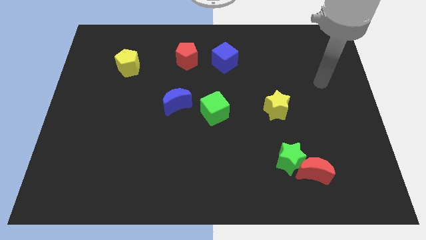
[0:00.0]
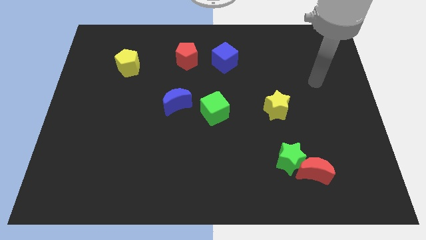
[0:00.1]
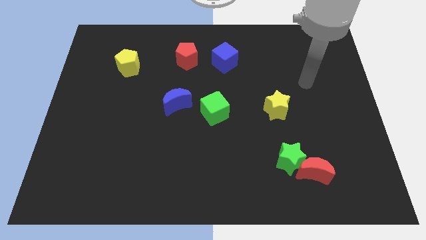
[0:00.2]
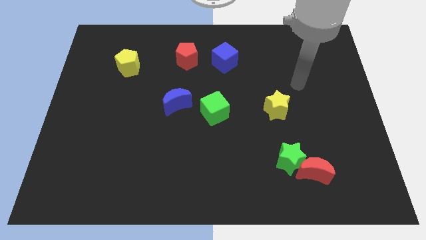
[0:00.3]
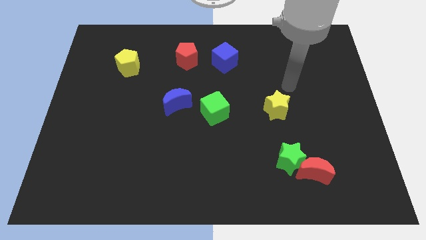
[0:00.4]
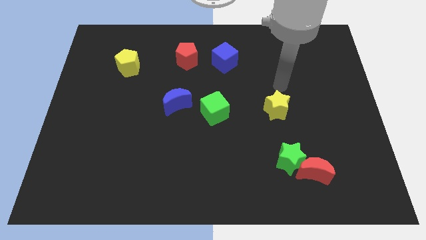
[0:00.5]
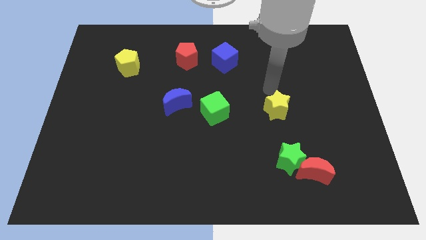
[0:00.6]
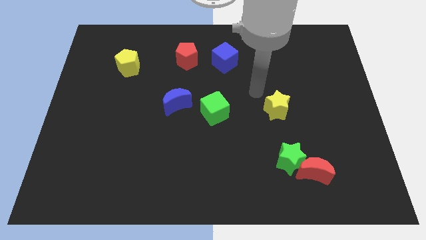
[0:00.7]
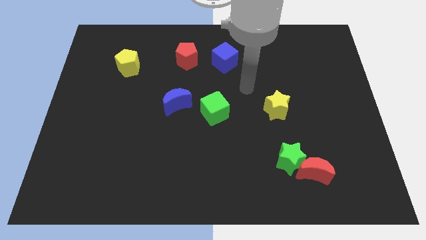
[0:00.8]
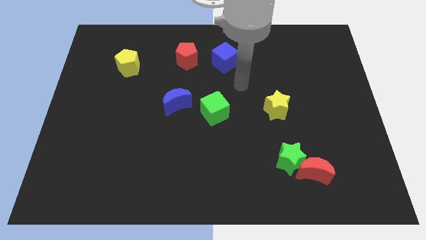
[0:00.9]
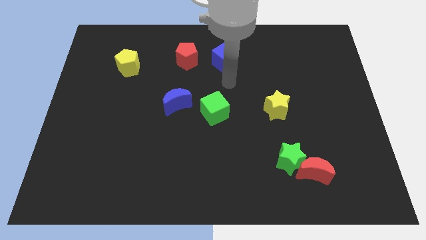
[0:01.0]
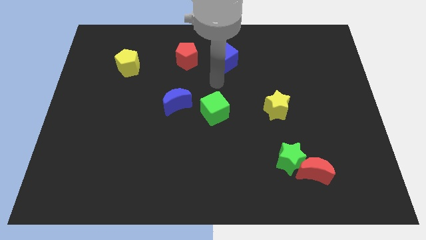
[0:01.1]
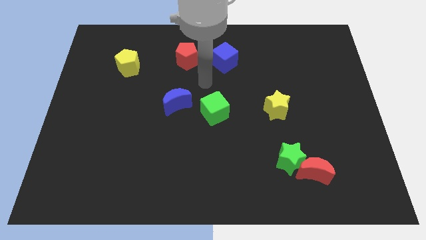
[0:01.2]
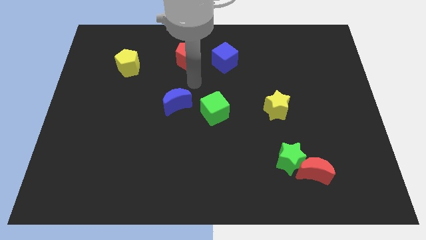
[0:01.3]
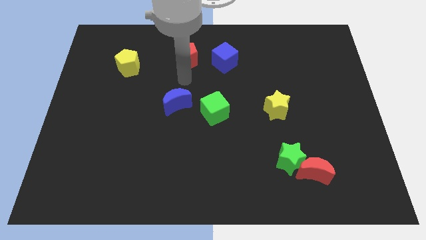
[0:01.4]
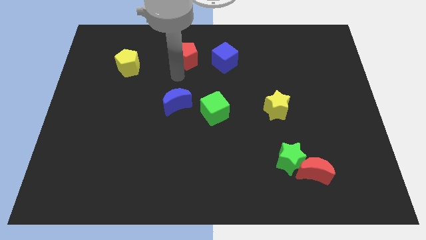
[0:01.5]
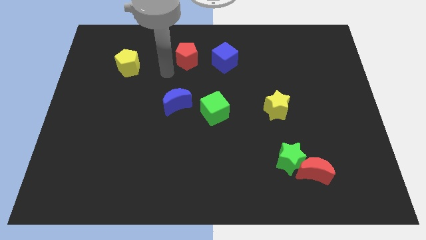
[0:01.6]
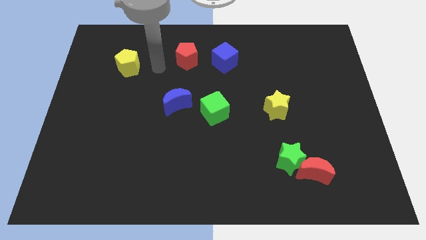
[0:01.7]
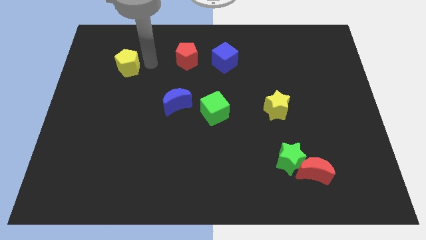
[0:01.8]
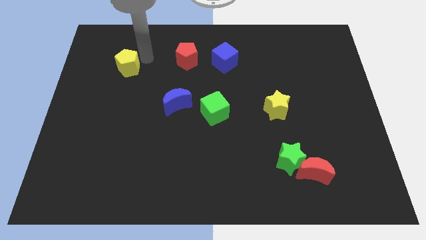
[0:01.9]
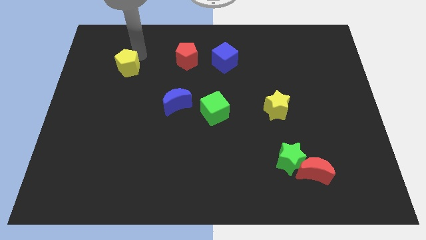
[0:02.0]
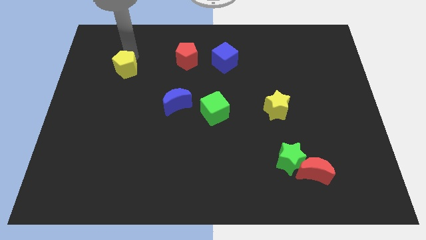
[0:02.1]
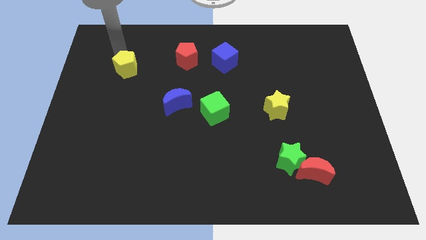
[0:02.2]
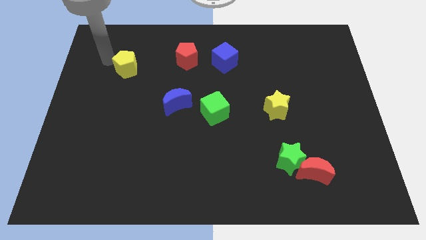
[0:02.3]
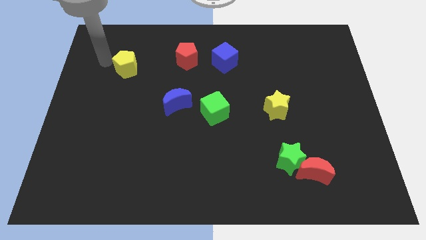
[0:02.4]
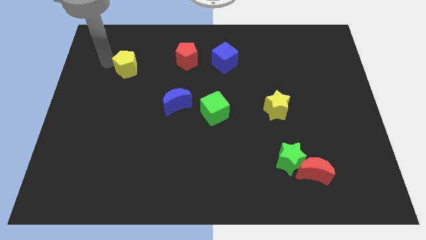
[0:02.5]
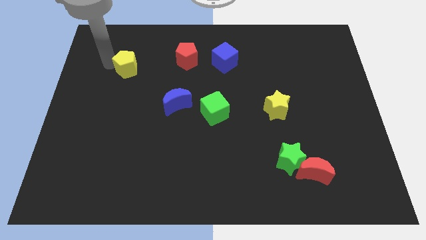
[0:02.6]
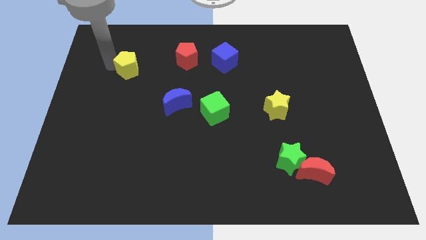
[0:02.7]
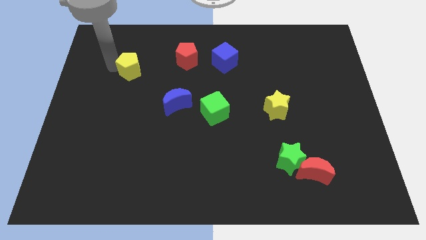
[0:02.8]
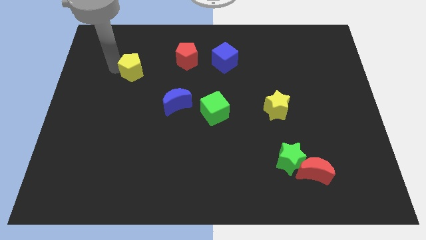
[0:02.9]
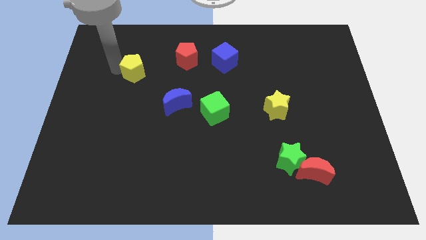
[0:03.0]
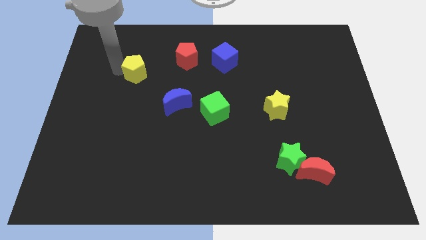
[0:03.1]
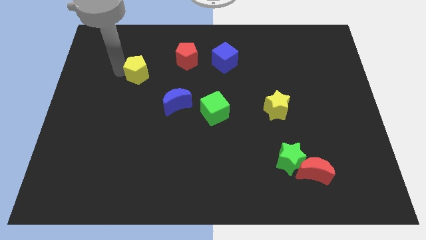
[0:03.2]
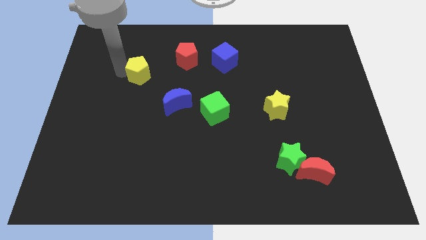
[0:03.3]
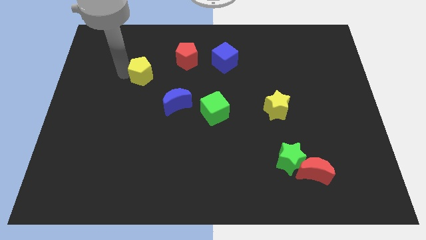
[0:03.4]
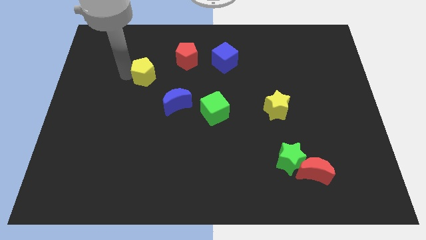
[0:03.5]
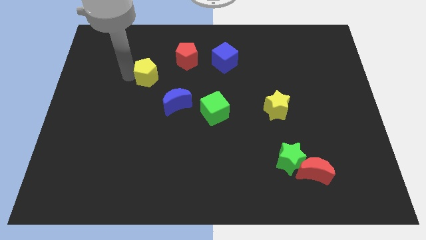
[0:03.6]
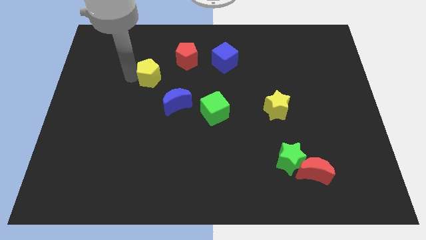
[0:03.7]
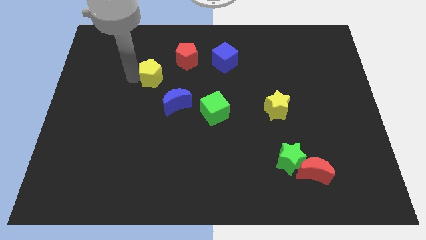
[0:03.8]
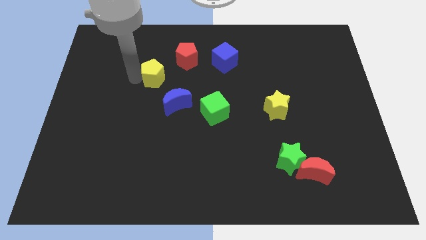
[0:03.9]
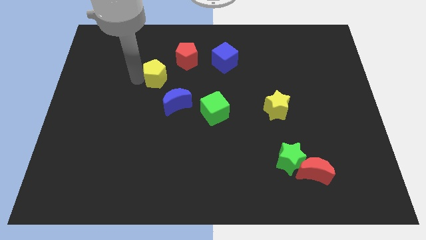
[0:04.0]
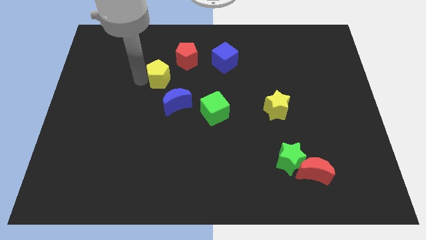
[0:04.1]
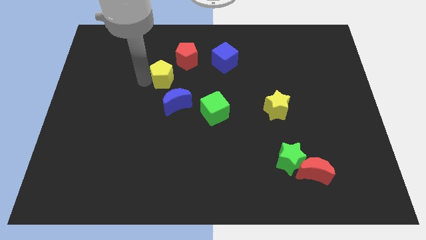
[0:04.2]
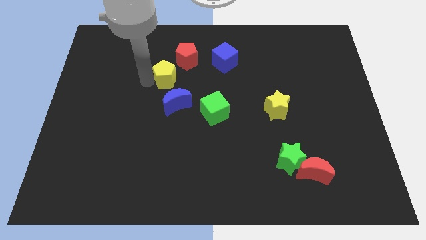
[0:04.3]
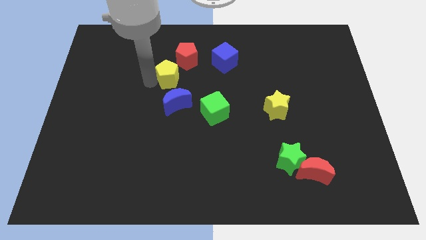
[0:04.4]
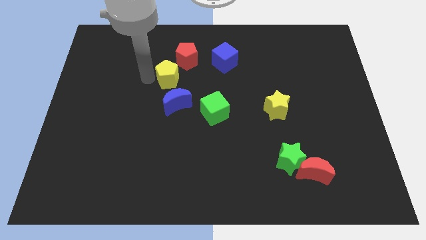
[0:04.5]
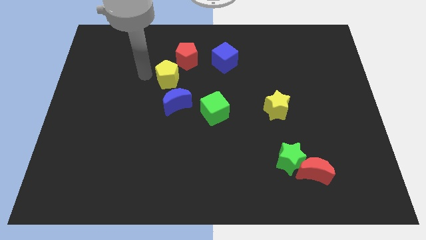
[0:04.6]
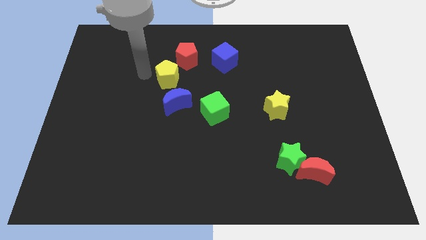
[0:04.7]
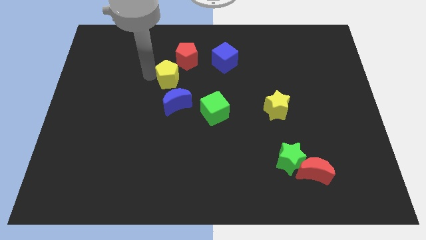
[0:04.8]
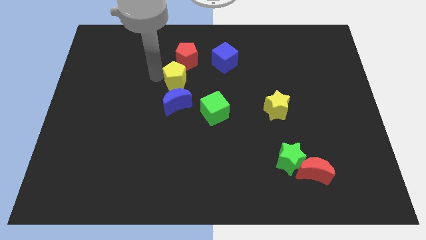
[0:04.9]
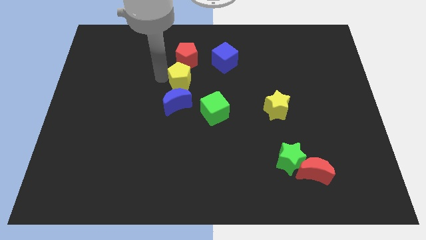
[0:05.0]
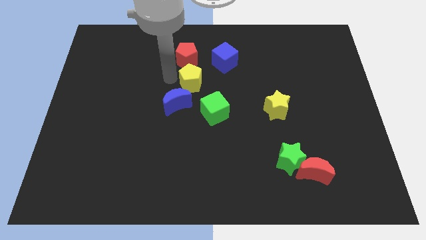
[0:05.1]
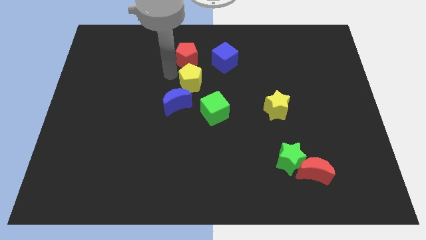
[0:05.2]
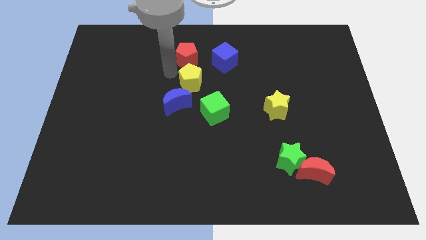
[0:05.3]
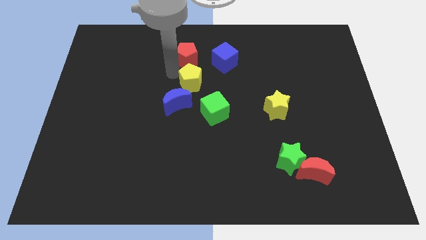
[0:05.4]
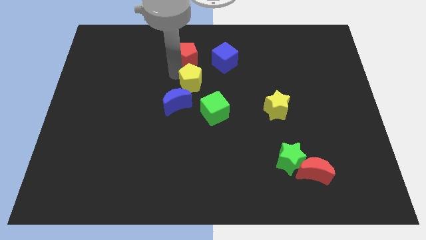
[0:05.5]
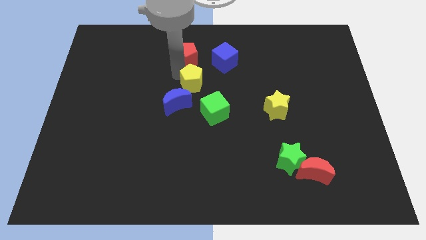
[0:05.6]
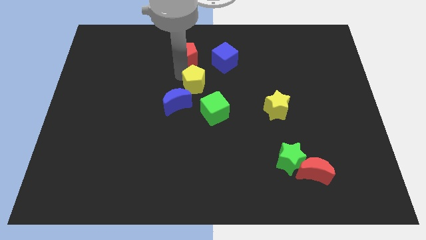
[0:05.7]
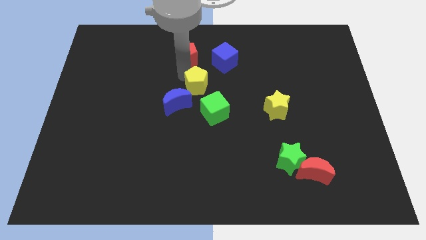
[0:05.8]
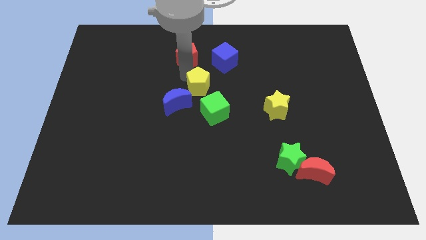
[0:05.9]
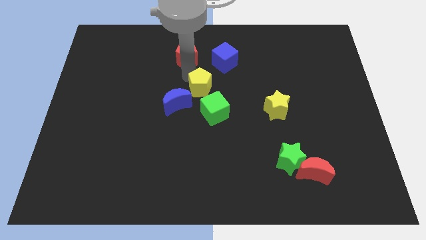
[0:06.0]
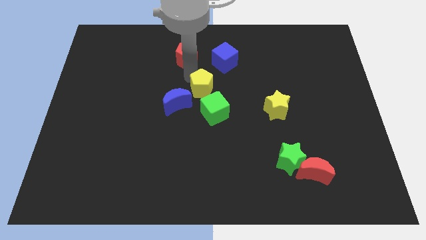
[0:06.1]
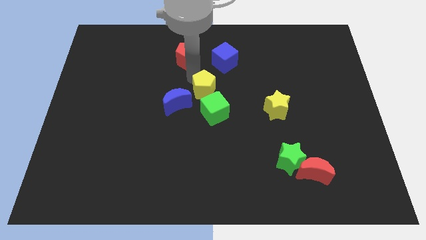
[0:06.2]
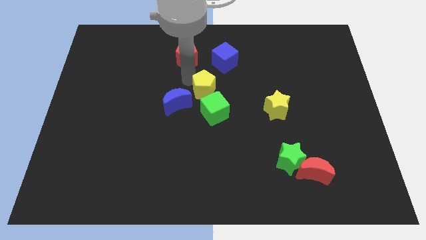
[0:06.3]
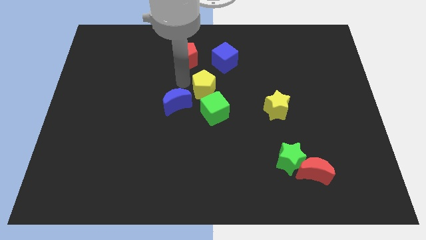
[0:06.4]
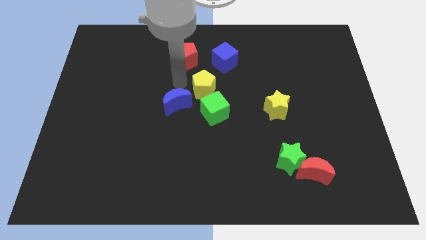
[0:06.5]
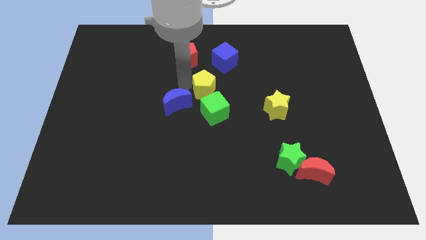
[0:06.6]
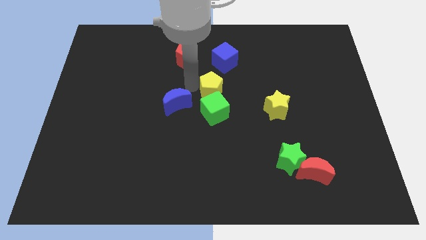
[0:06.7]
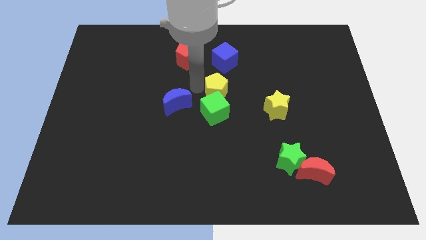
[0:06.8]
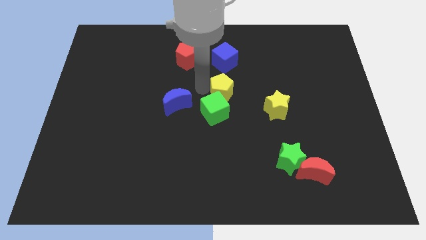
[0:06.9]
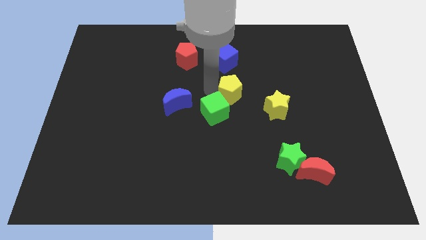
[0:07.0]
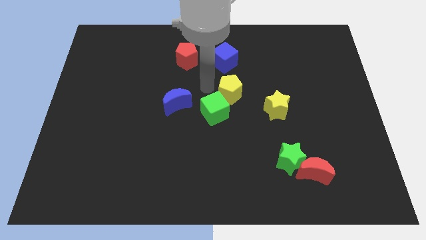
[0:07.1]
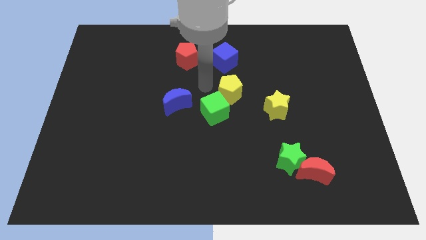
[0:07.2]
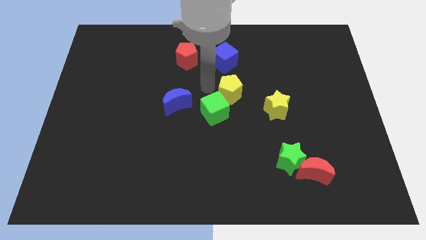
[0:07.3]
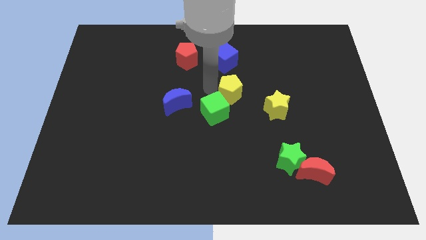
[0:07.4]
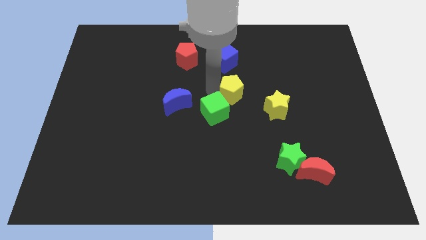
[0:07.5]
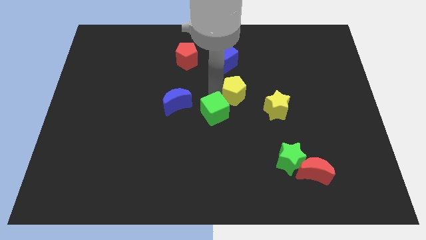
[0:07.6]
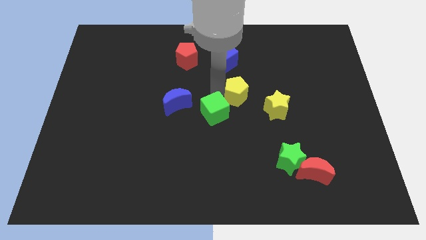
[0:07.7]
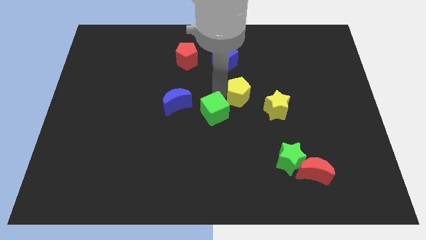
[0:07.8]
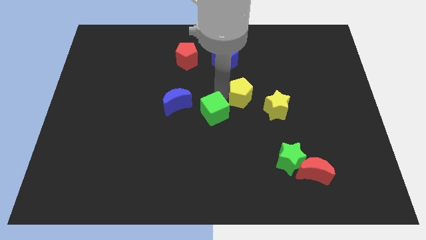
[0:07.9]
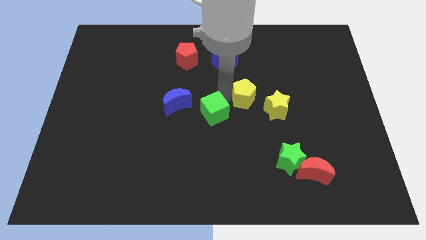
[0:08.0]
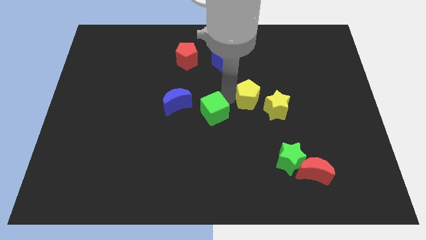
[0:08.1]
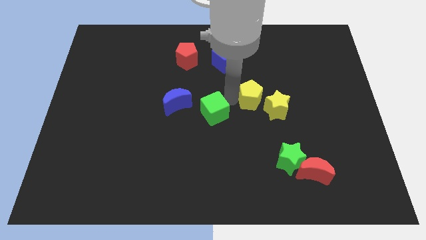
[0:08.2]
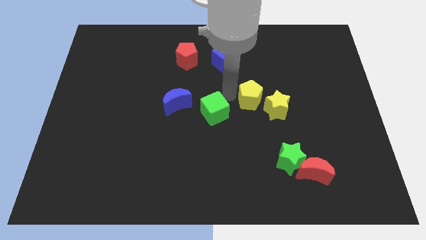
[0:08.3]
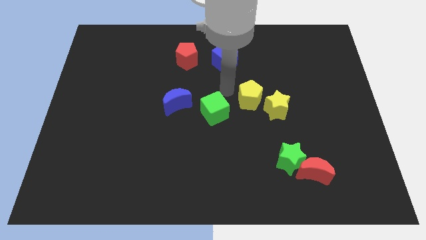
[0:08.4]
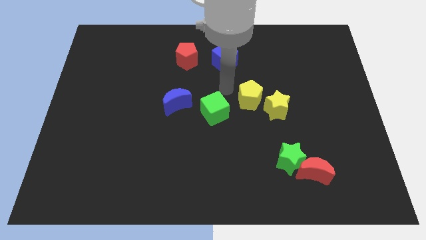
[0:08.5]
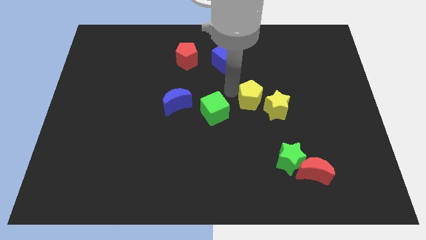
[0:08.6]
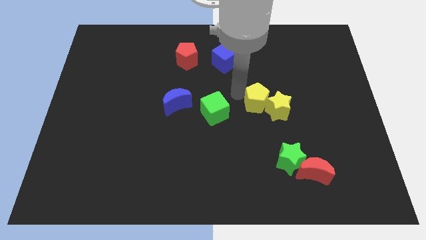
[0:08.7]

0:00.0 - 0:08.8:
move the yellow pentagon to the yellow star
